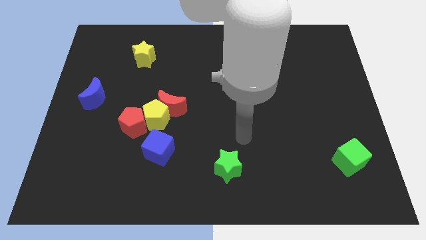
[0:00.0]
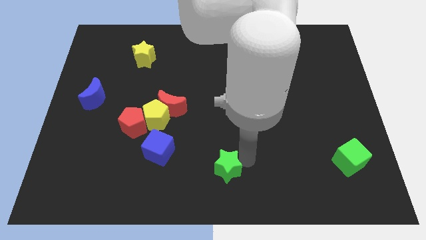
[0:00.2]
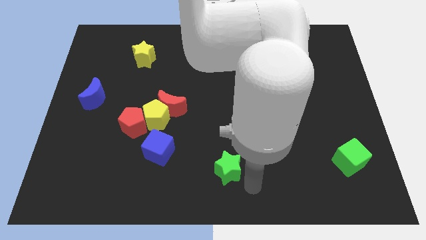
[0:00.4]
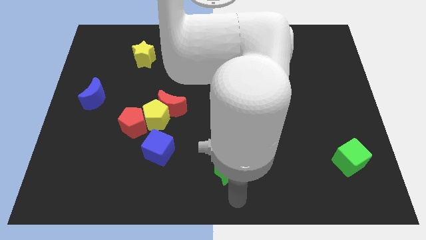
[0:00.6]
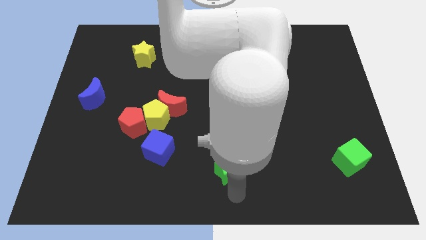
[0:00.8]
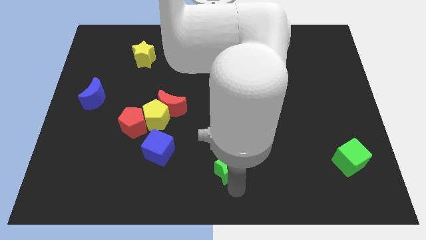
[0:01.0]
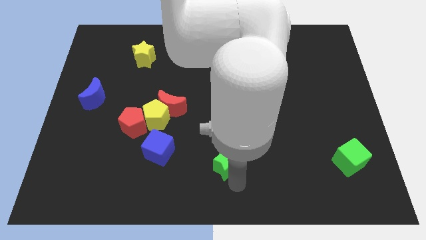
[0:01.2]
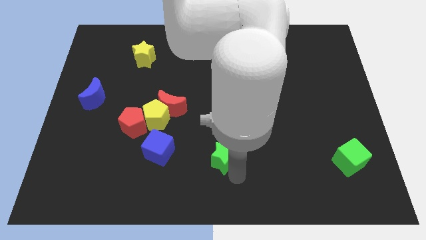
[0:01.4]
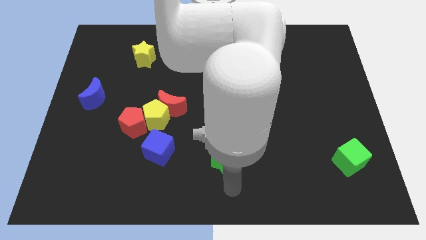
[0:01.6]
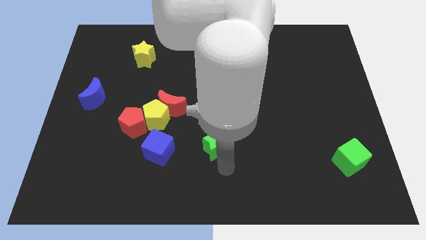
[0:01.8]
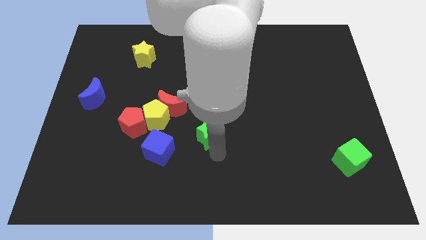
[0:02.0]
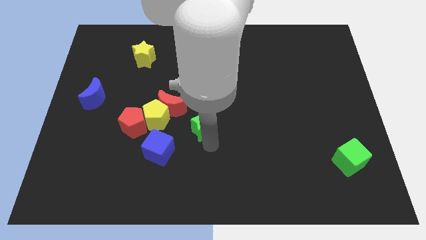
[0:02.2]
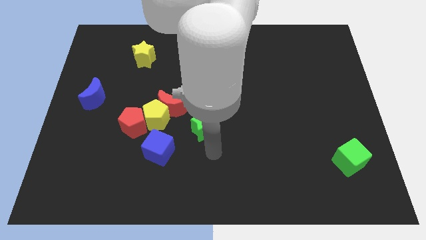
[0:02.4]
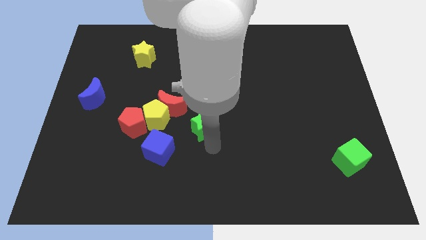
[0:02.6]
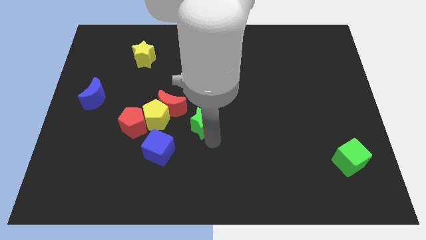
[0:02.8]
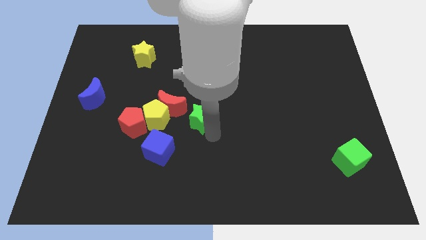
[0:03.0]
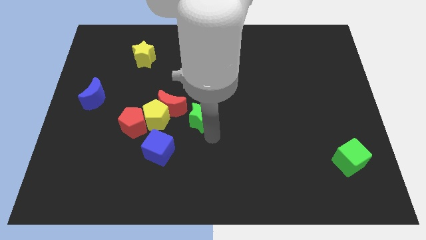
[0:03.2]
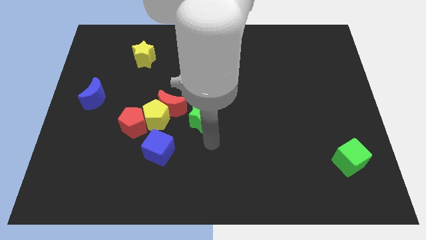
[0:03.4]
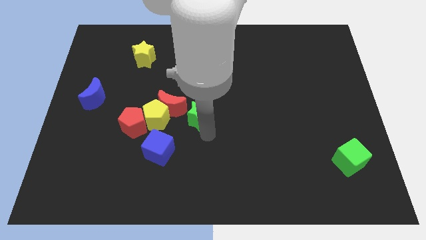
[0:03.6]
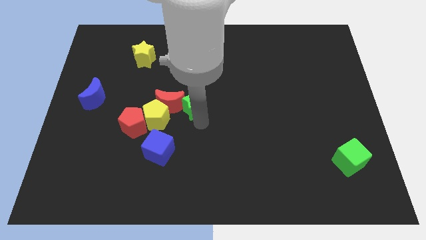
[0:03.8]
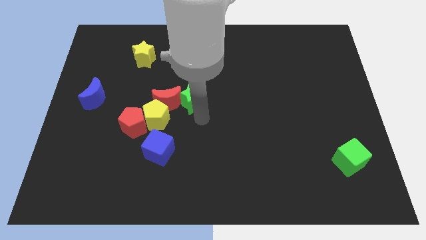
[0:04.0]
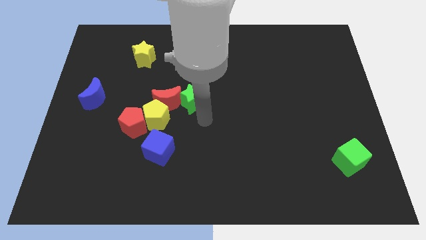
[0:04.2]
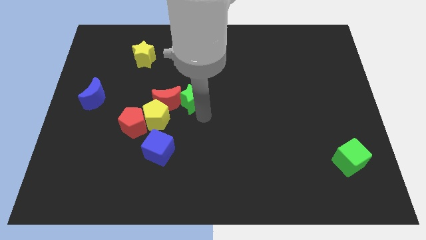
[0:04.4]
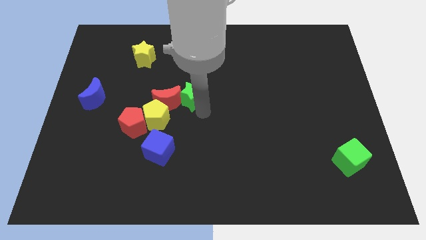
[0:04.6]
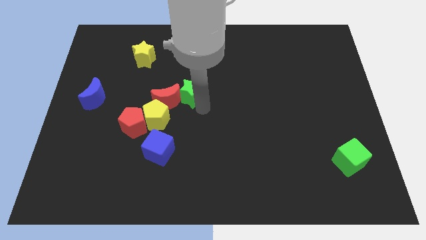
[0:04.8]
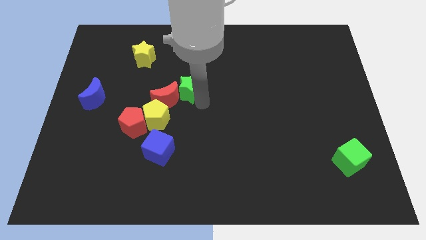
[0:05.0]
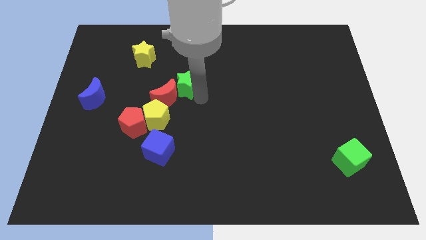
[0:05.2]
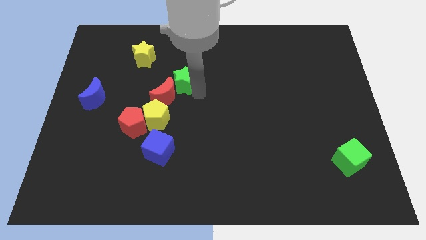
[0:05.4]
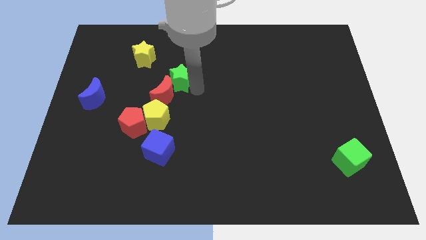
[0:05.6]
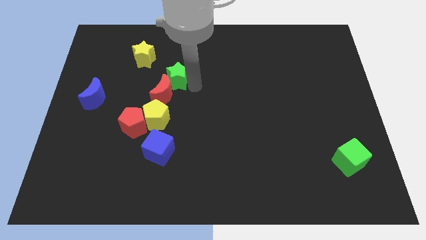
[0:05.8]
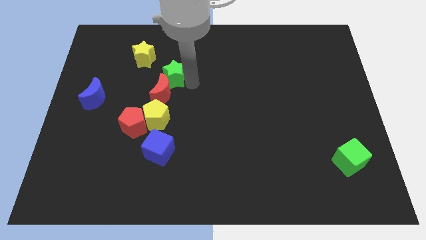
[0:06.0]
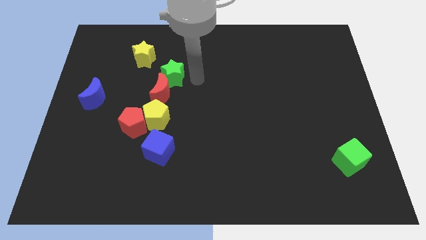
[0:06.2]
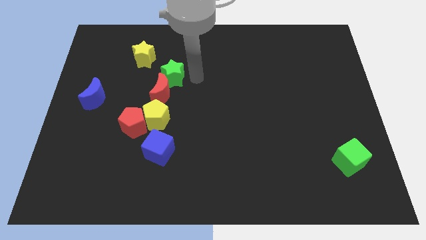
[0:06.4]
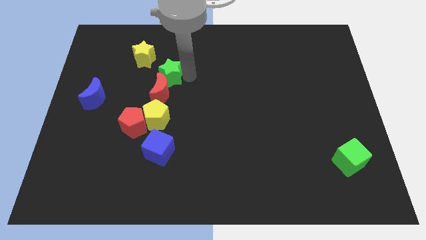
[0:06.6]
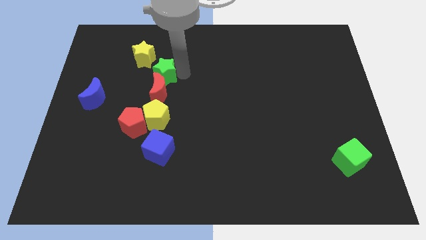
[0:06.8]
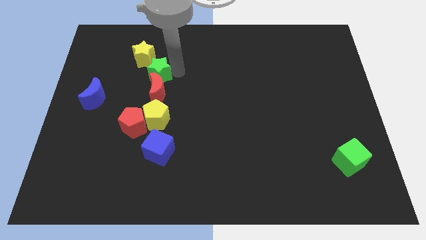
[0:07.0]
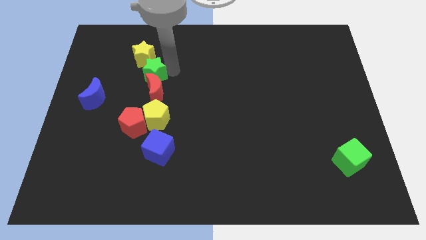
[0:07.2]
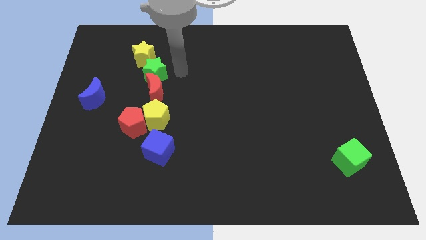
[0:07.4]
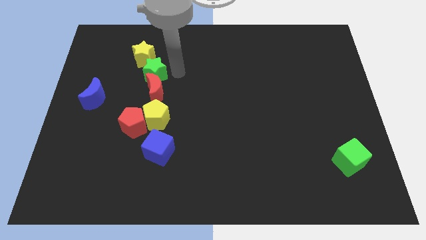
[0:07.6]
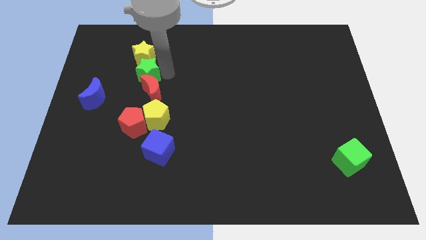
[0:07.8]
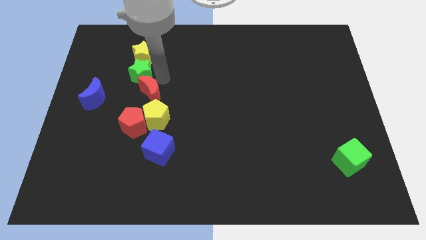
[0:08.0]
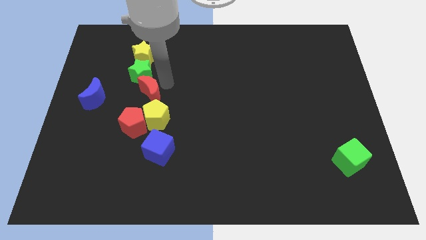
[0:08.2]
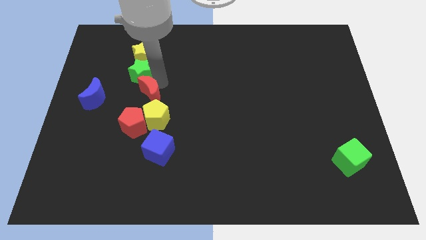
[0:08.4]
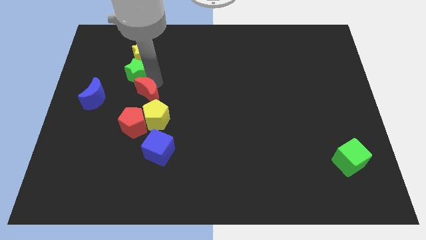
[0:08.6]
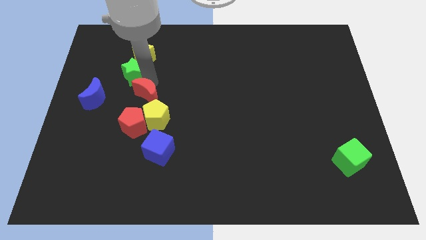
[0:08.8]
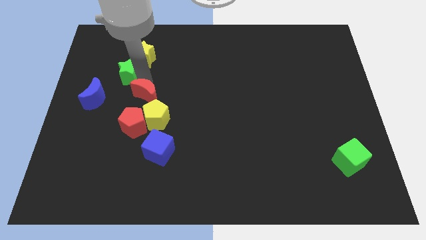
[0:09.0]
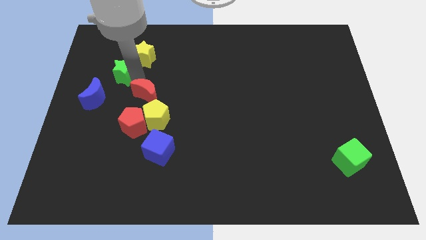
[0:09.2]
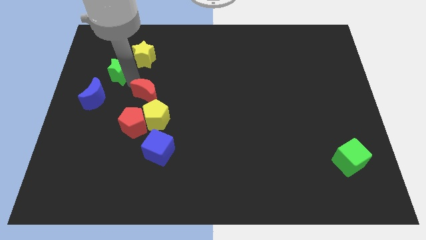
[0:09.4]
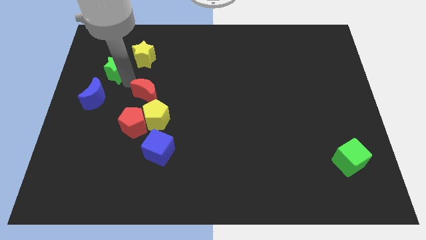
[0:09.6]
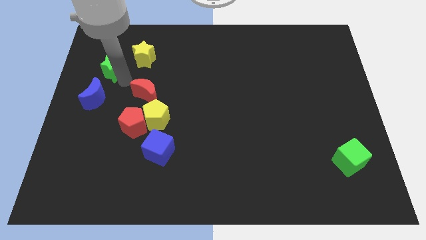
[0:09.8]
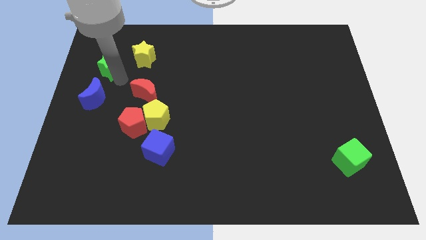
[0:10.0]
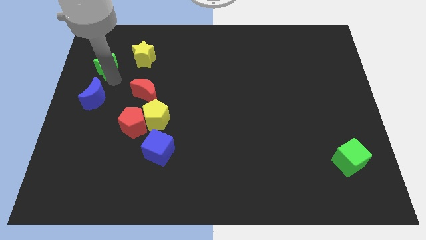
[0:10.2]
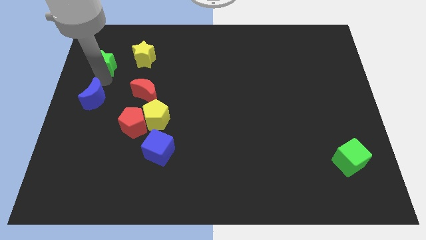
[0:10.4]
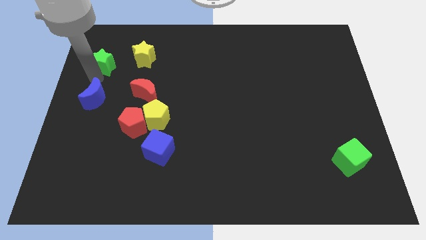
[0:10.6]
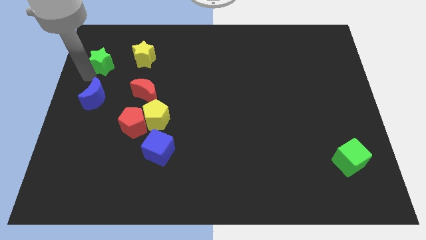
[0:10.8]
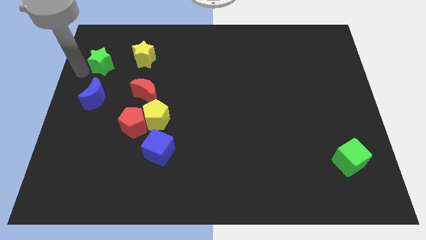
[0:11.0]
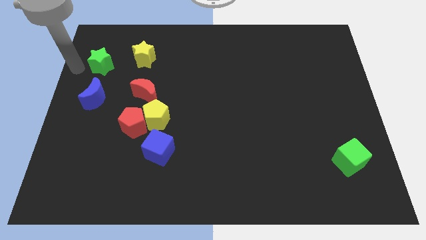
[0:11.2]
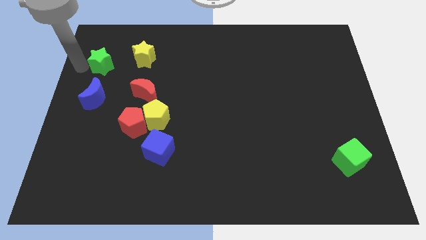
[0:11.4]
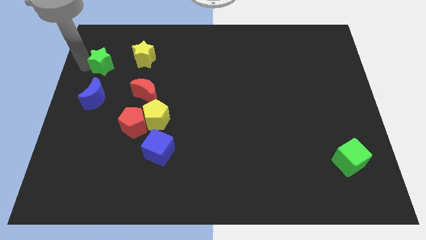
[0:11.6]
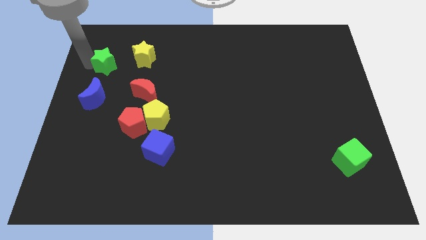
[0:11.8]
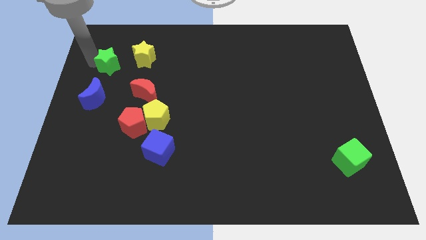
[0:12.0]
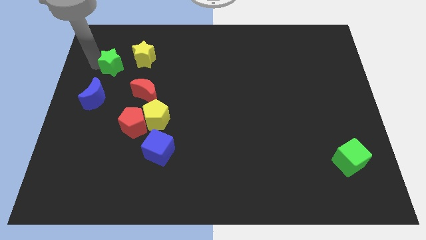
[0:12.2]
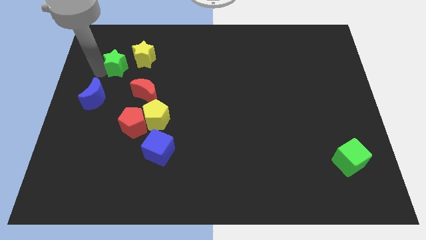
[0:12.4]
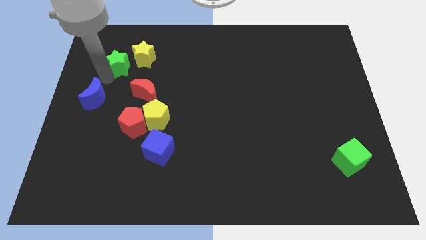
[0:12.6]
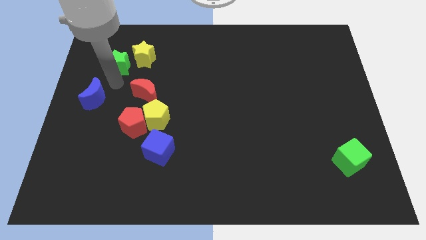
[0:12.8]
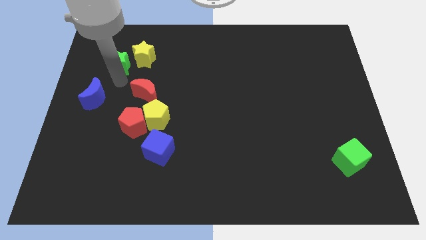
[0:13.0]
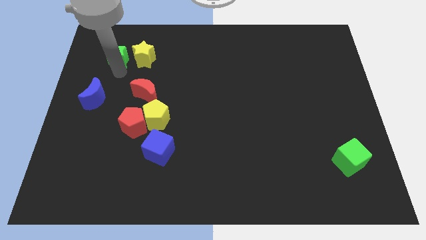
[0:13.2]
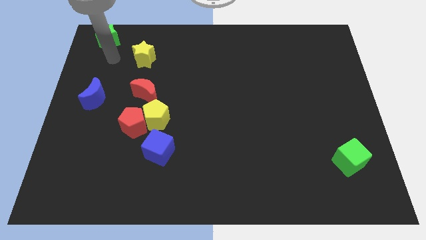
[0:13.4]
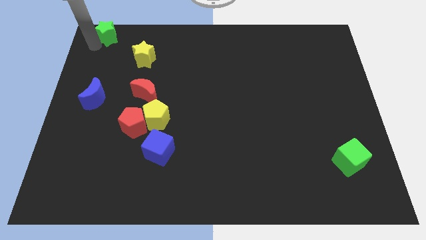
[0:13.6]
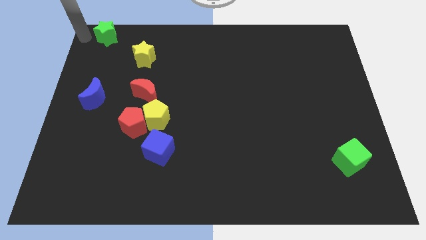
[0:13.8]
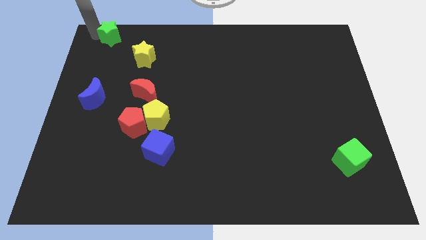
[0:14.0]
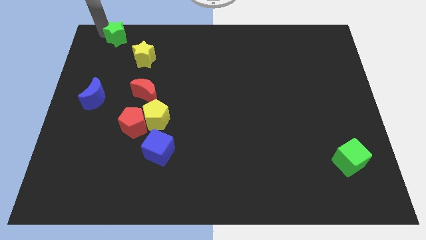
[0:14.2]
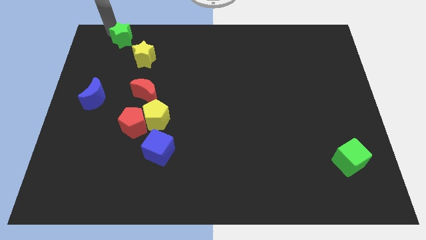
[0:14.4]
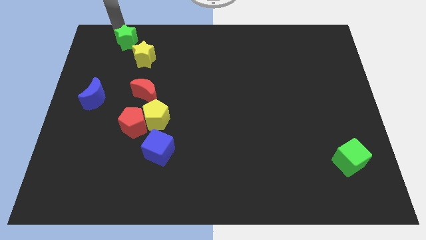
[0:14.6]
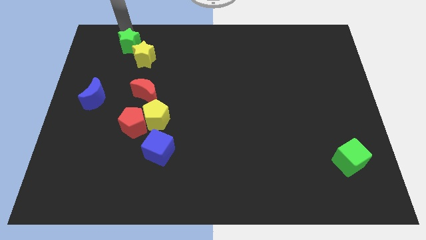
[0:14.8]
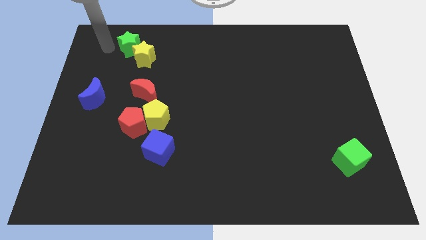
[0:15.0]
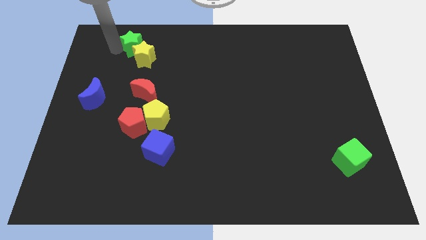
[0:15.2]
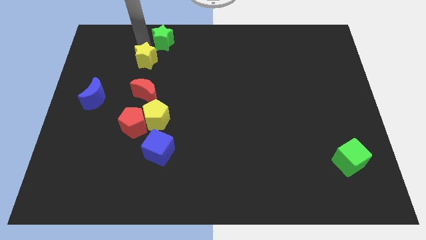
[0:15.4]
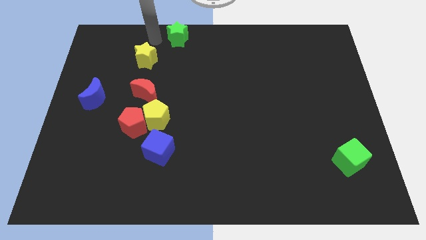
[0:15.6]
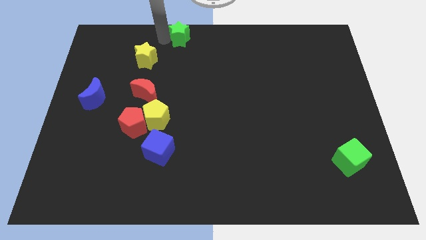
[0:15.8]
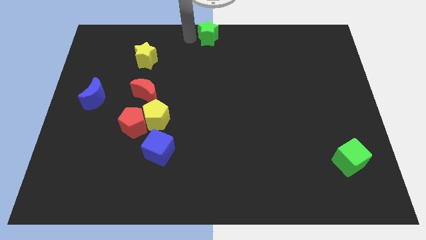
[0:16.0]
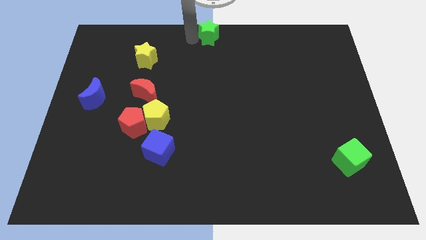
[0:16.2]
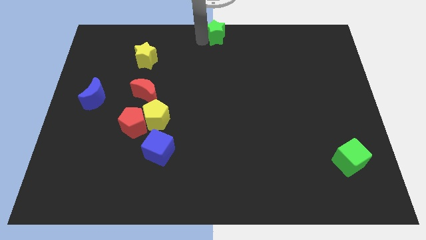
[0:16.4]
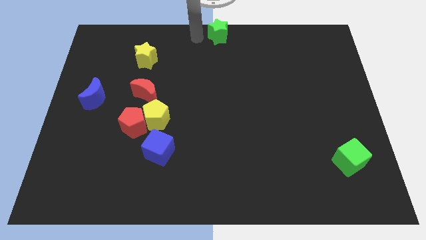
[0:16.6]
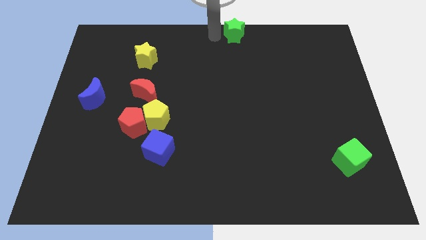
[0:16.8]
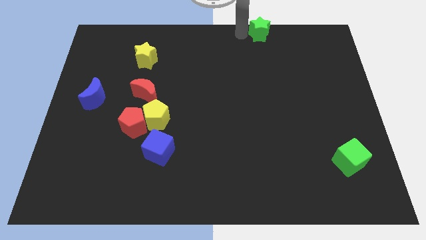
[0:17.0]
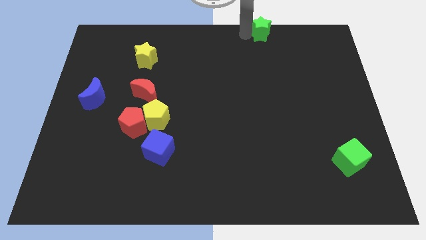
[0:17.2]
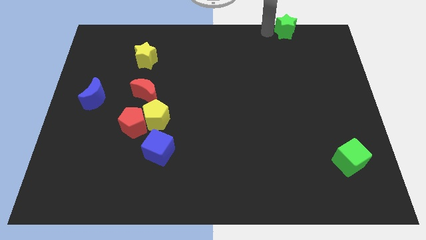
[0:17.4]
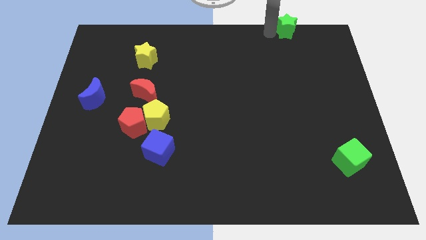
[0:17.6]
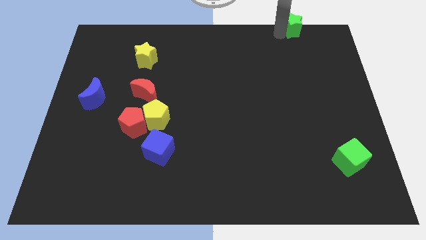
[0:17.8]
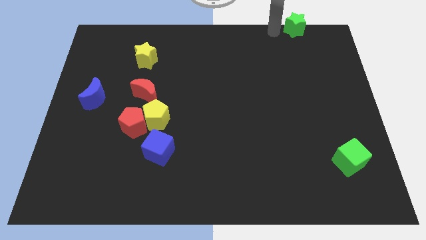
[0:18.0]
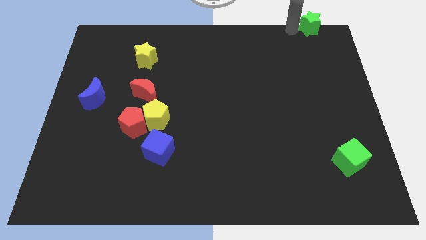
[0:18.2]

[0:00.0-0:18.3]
put the green star to the top right of the board
